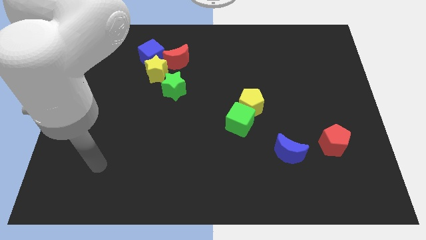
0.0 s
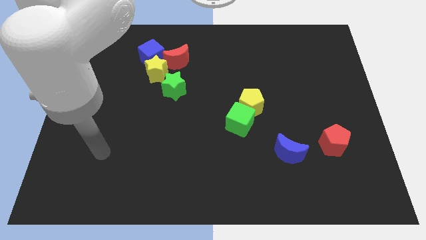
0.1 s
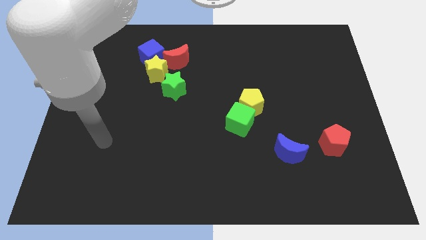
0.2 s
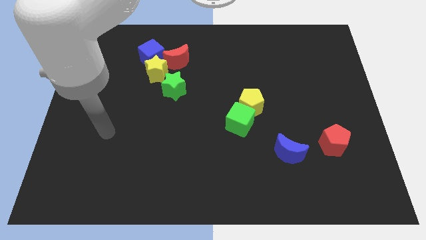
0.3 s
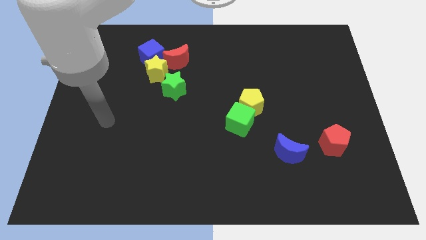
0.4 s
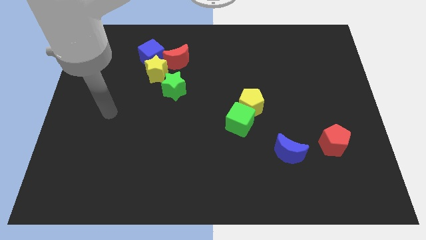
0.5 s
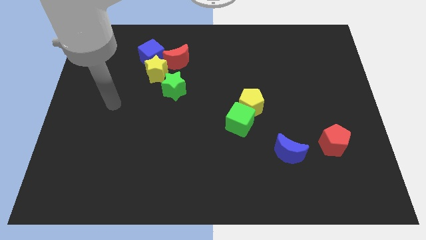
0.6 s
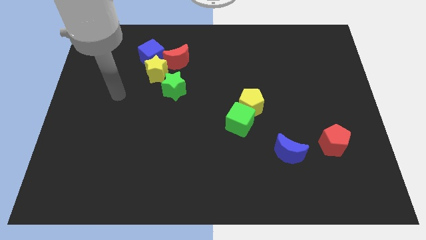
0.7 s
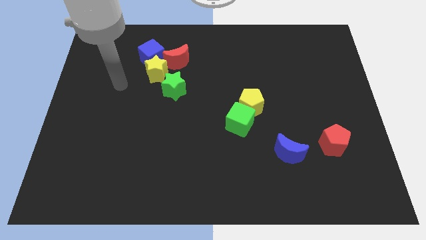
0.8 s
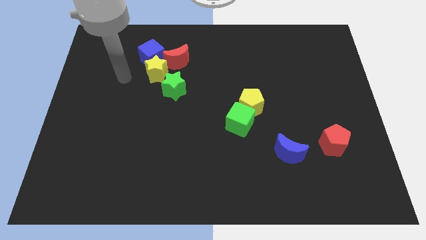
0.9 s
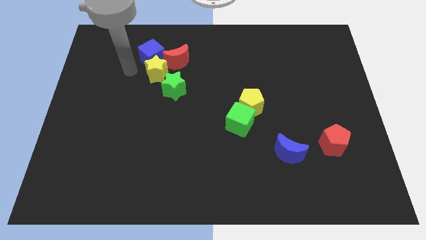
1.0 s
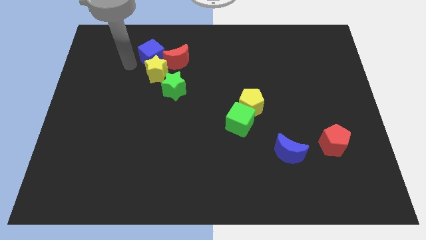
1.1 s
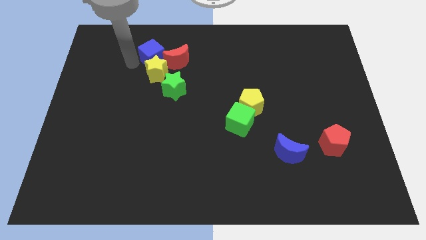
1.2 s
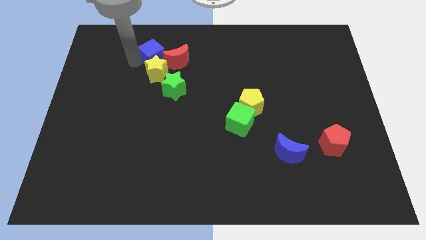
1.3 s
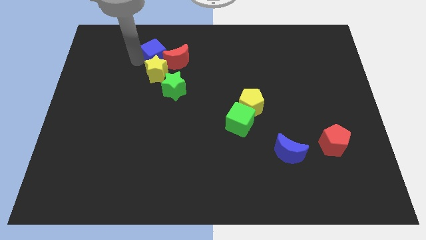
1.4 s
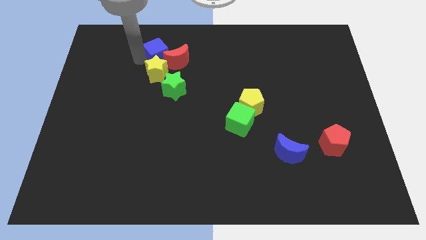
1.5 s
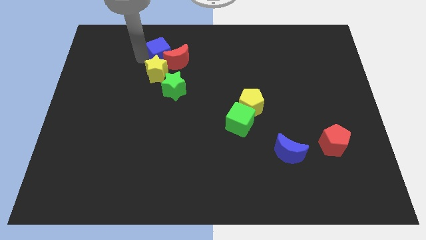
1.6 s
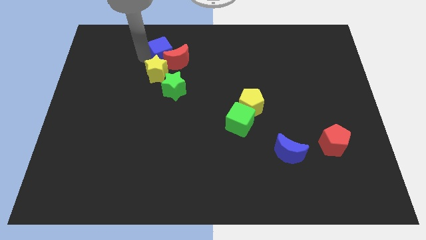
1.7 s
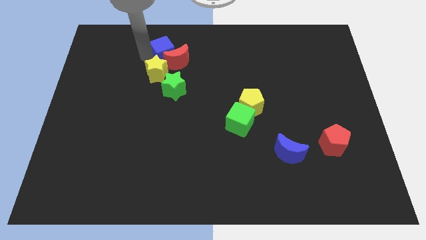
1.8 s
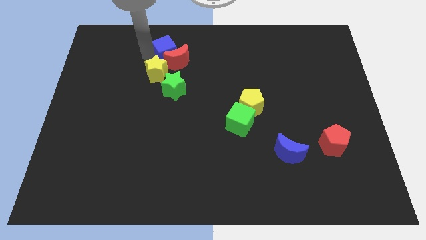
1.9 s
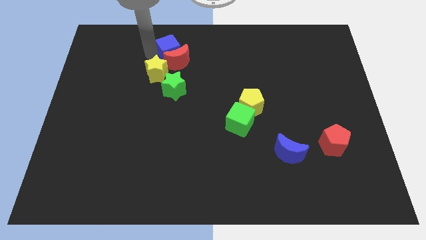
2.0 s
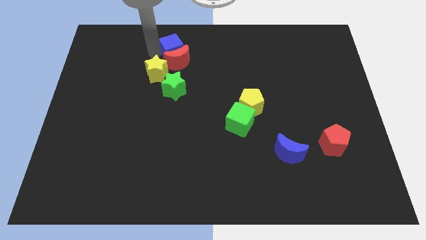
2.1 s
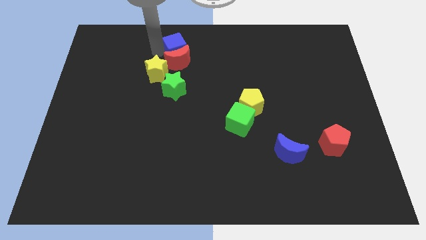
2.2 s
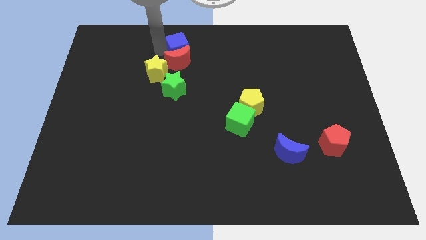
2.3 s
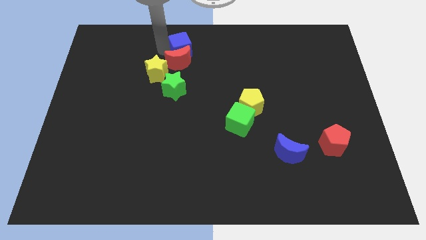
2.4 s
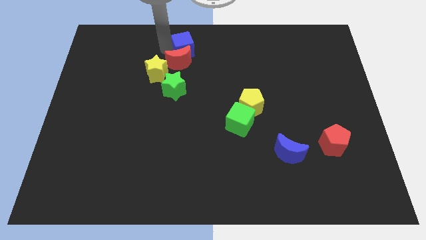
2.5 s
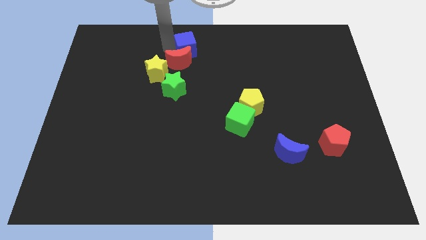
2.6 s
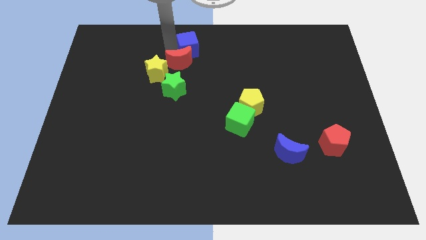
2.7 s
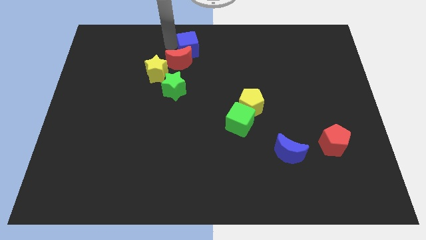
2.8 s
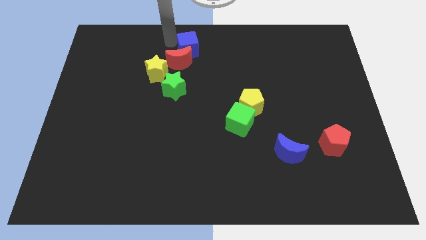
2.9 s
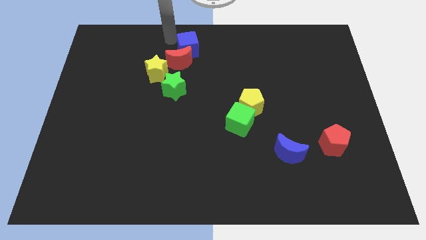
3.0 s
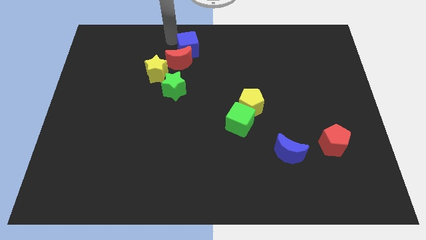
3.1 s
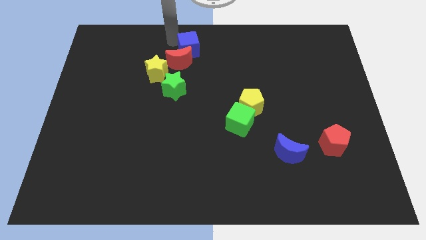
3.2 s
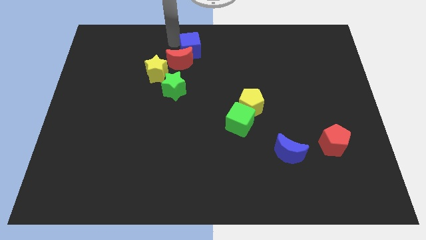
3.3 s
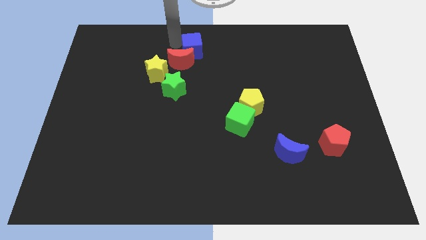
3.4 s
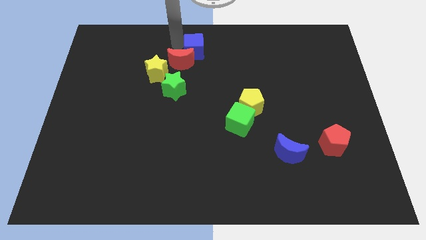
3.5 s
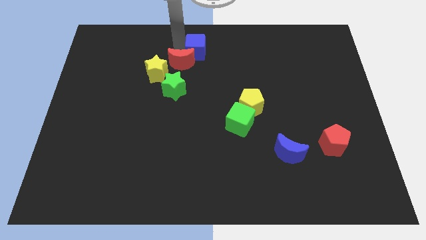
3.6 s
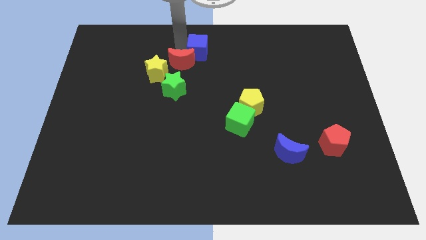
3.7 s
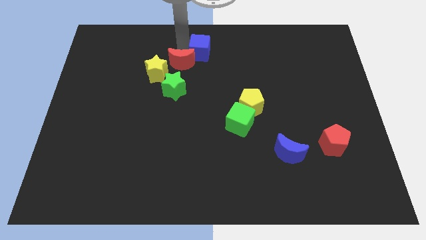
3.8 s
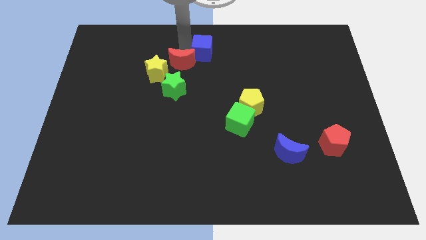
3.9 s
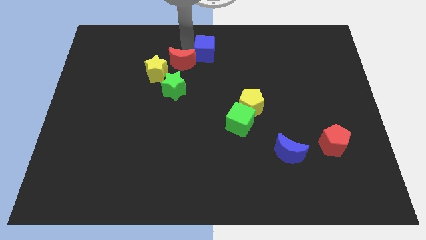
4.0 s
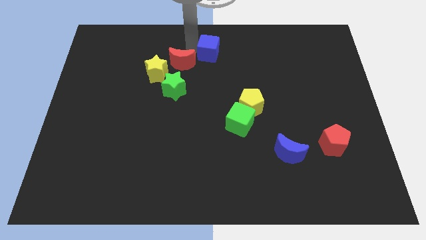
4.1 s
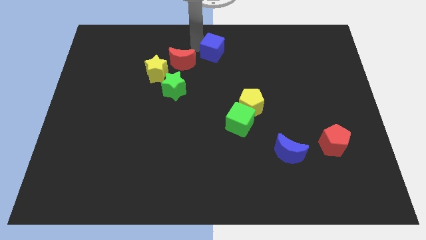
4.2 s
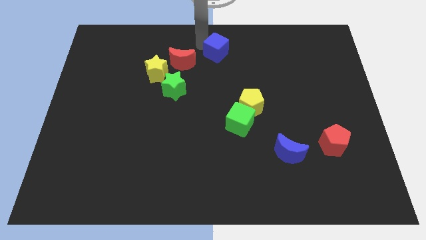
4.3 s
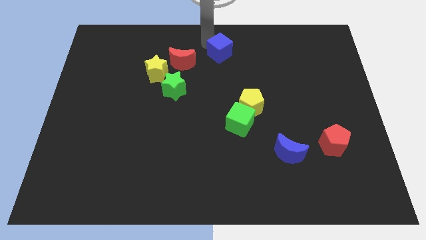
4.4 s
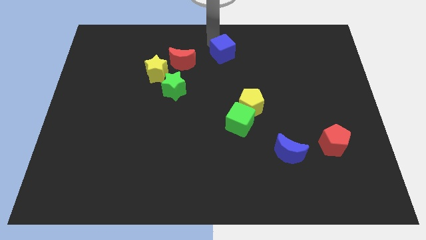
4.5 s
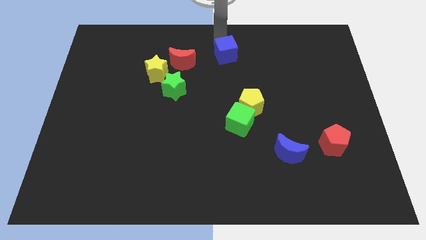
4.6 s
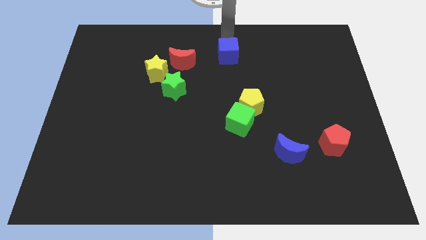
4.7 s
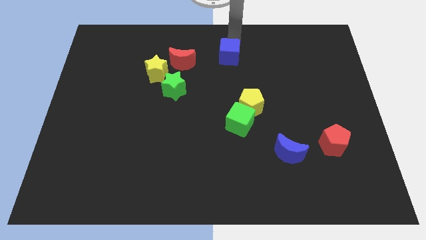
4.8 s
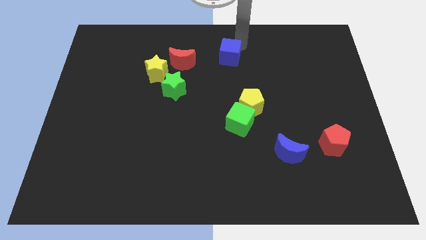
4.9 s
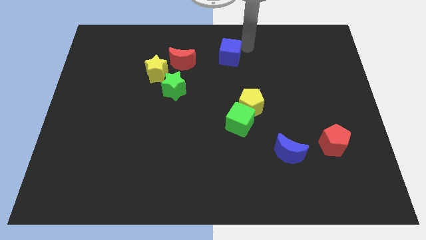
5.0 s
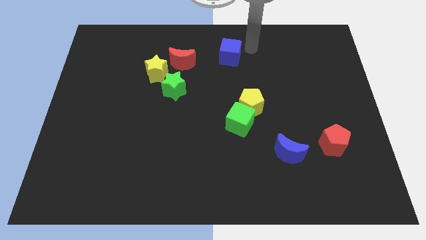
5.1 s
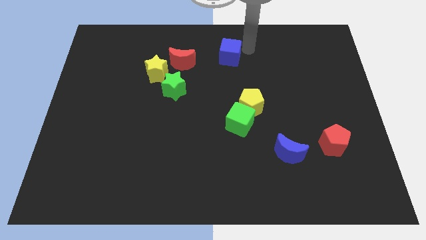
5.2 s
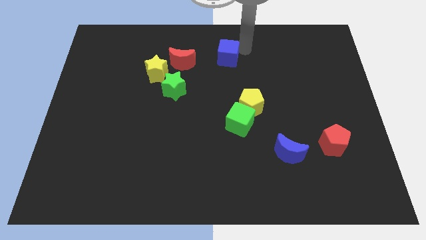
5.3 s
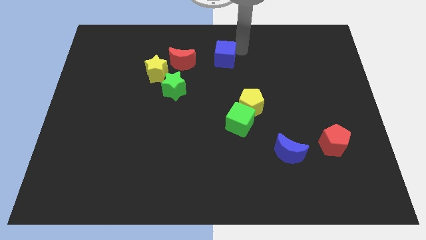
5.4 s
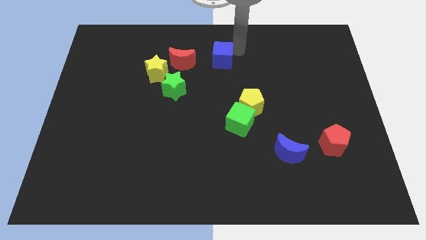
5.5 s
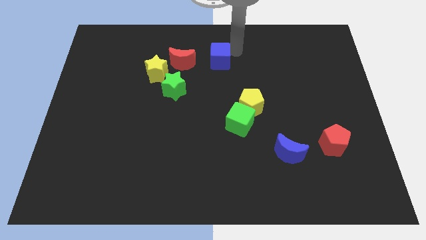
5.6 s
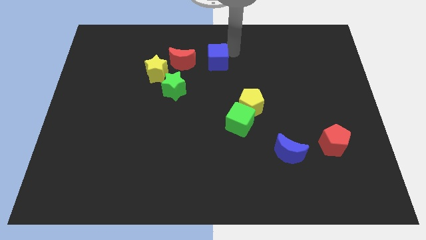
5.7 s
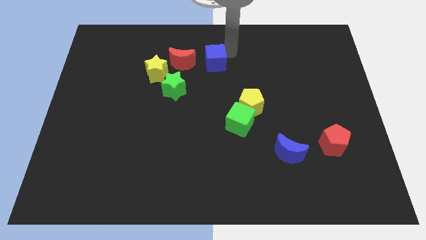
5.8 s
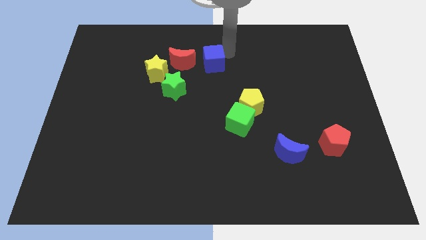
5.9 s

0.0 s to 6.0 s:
put the blue cube to the center of the board

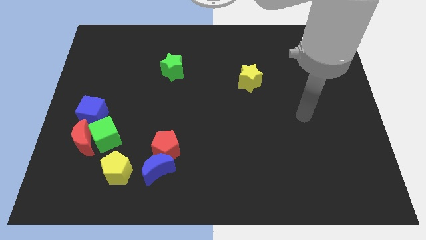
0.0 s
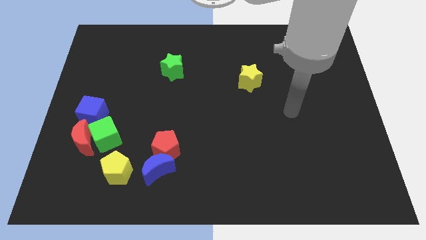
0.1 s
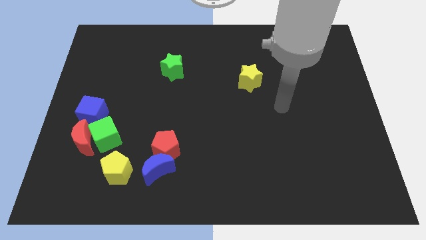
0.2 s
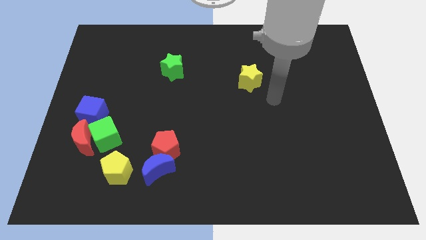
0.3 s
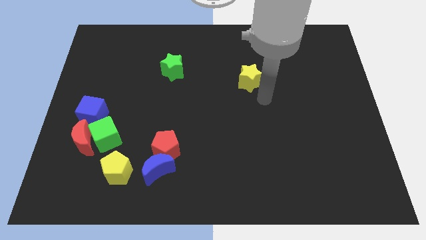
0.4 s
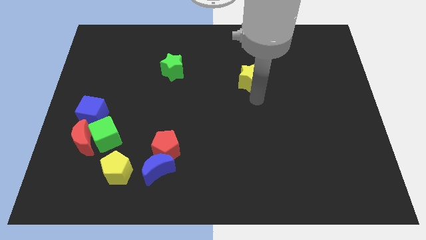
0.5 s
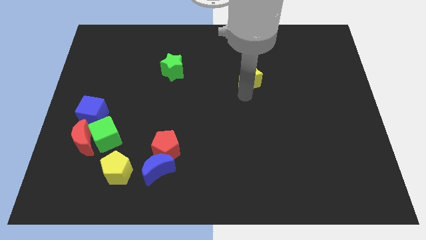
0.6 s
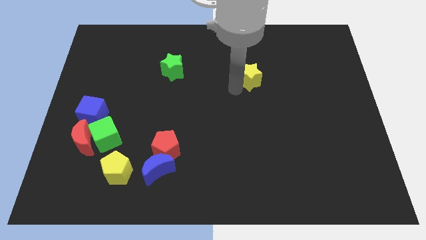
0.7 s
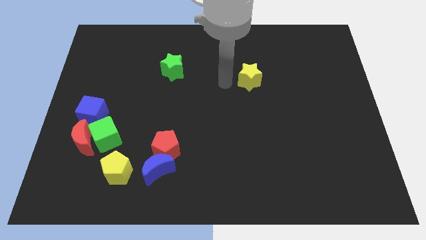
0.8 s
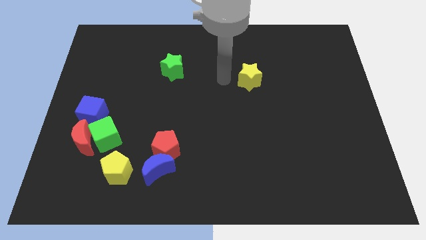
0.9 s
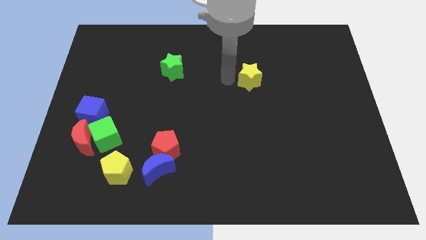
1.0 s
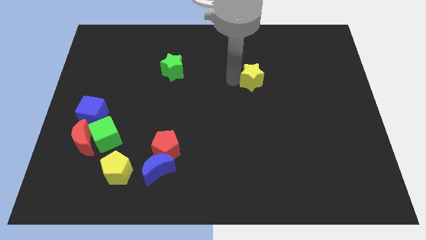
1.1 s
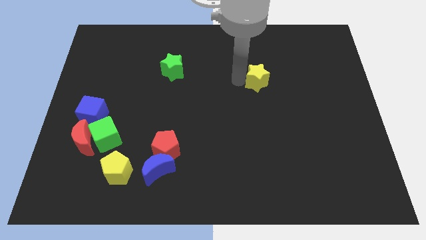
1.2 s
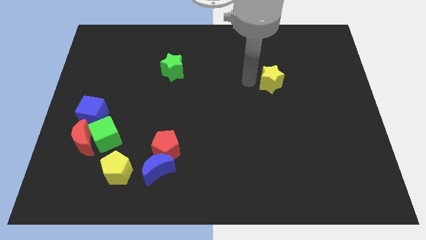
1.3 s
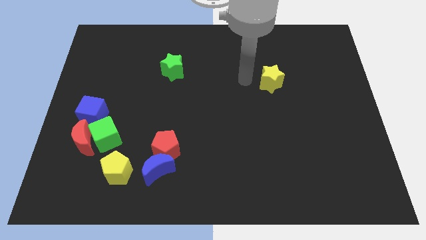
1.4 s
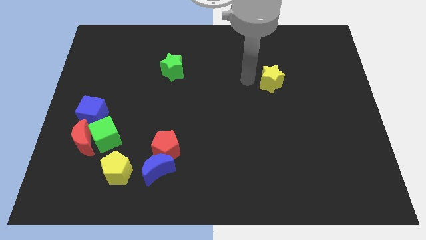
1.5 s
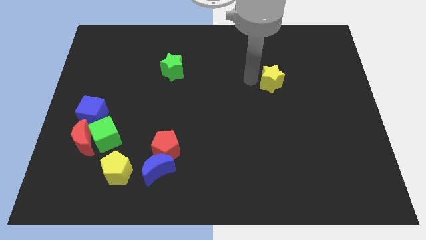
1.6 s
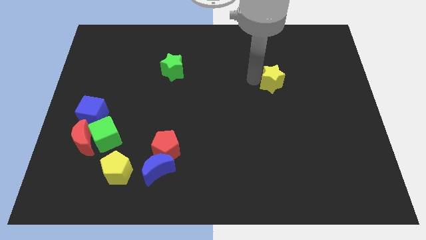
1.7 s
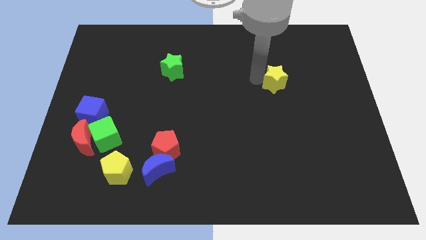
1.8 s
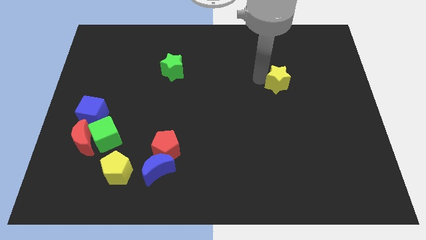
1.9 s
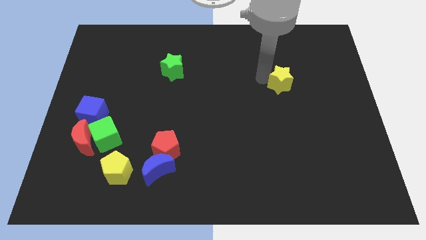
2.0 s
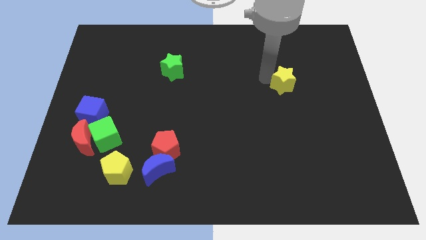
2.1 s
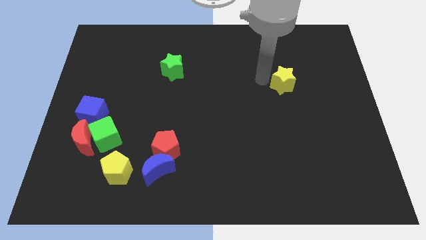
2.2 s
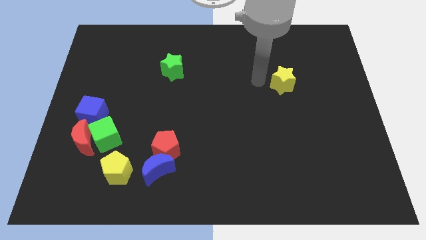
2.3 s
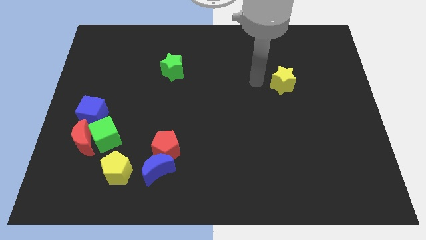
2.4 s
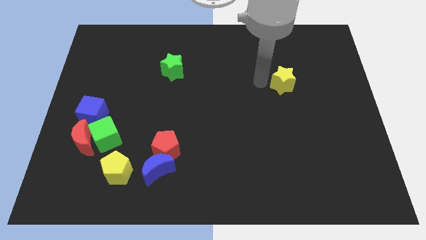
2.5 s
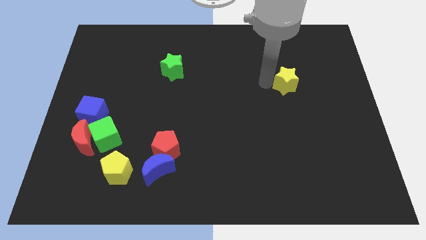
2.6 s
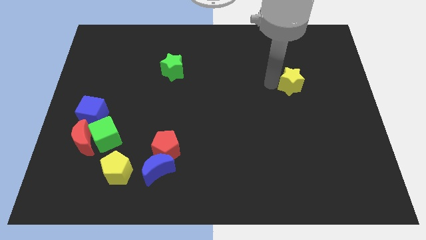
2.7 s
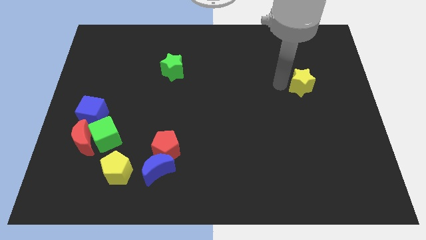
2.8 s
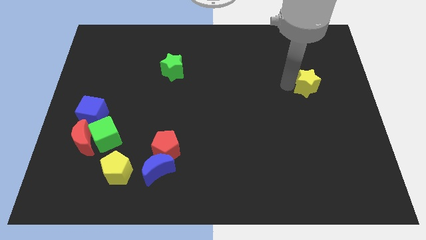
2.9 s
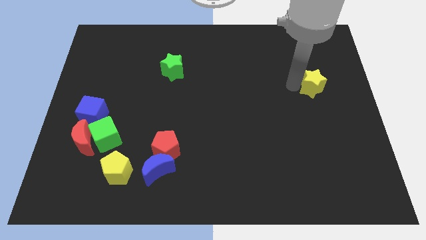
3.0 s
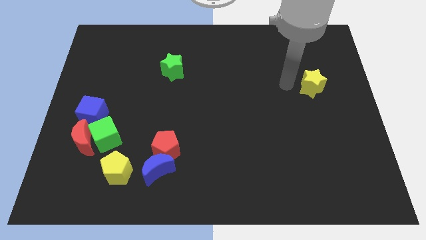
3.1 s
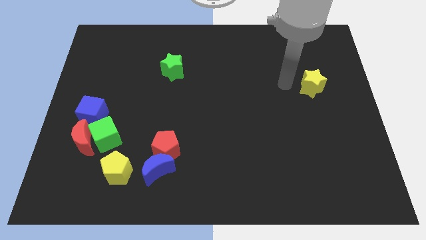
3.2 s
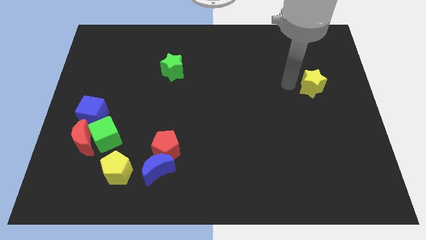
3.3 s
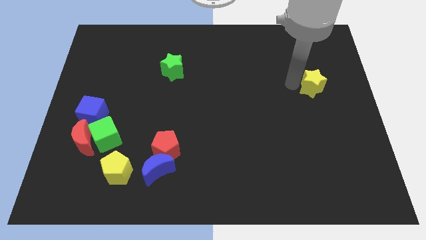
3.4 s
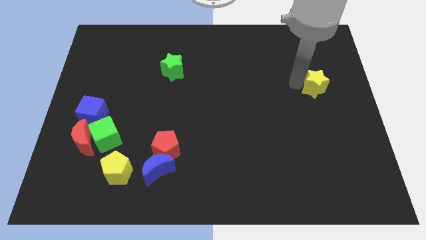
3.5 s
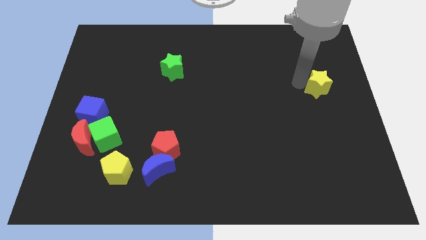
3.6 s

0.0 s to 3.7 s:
put the yellow star to the right side of the board
